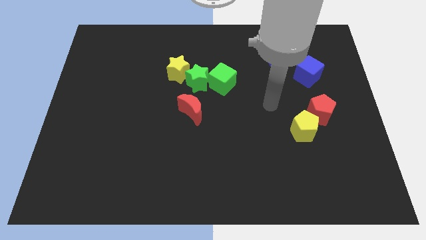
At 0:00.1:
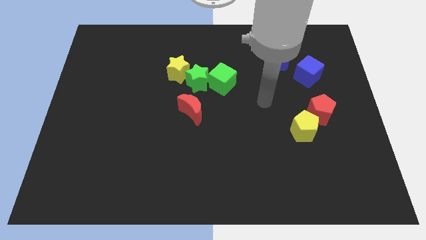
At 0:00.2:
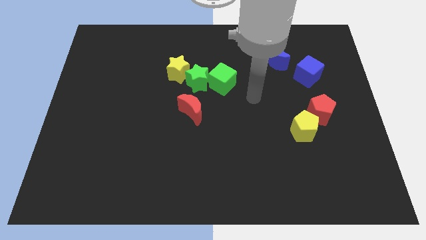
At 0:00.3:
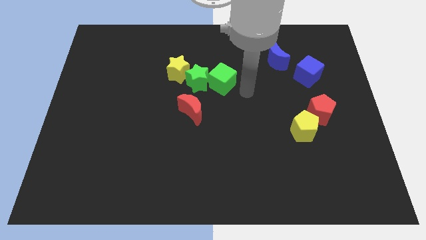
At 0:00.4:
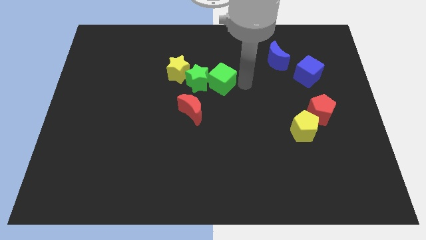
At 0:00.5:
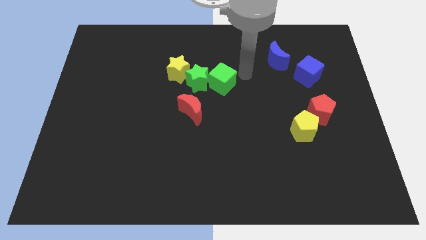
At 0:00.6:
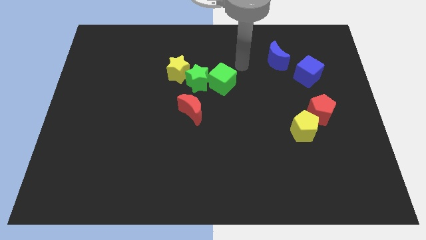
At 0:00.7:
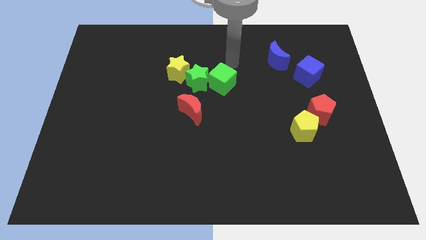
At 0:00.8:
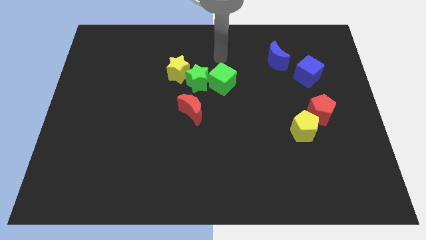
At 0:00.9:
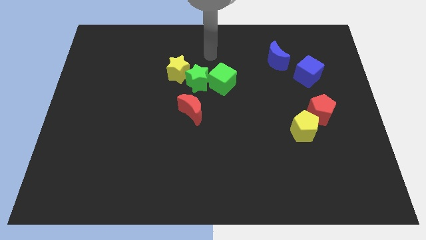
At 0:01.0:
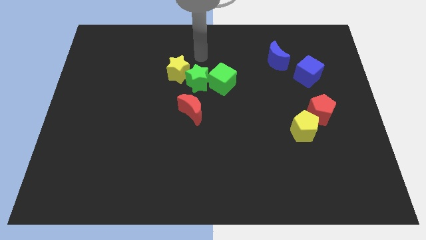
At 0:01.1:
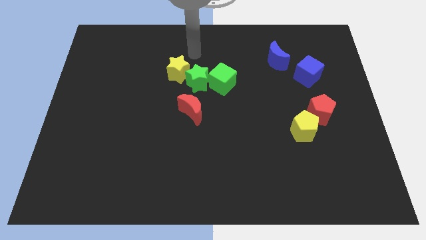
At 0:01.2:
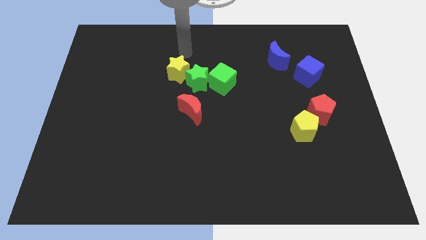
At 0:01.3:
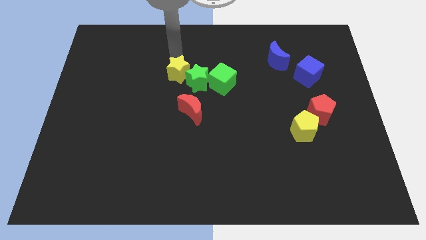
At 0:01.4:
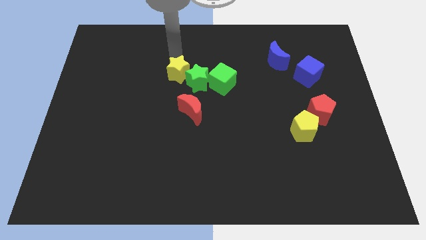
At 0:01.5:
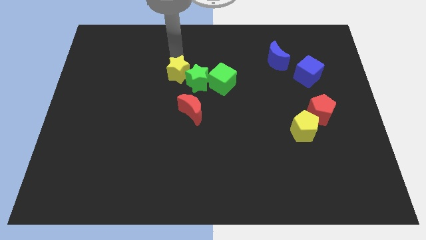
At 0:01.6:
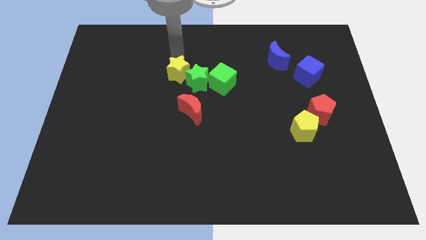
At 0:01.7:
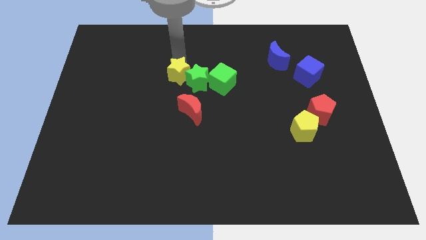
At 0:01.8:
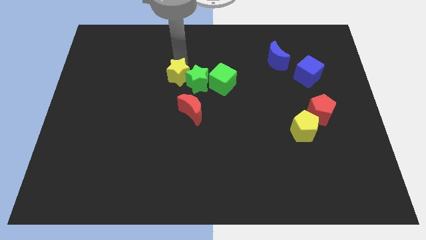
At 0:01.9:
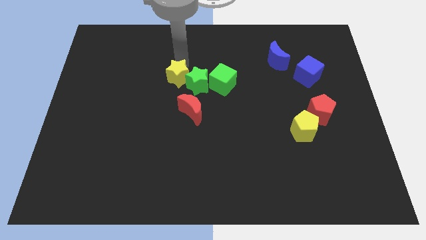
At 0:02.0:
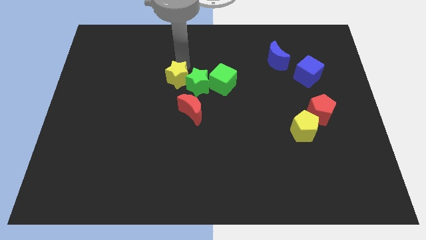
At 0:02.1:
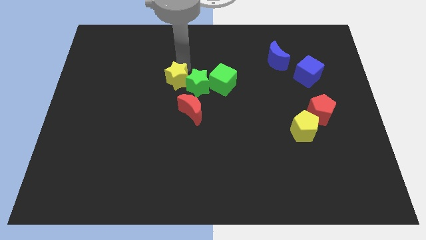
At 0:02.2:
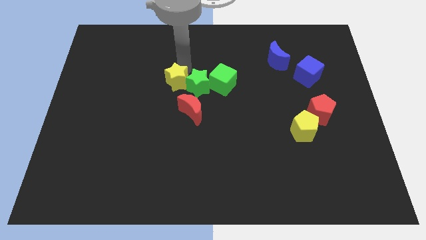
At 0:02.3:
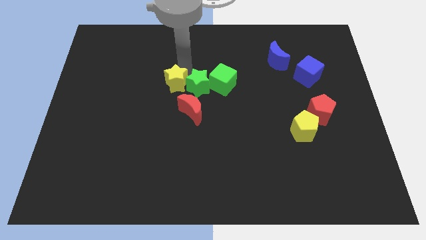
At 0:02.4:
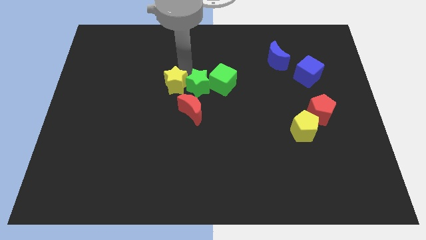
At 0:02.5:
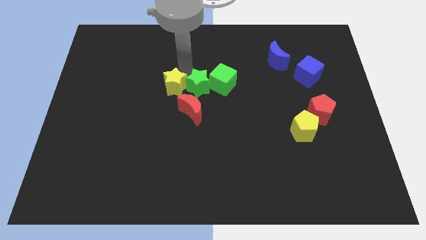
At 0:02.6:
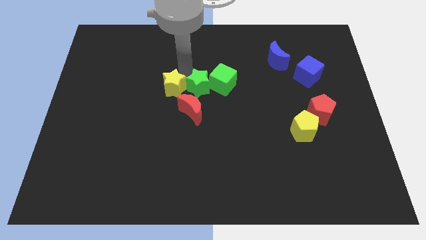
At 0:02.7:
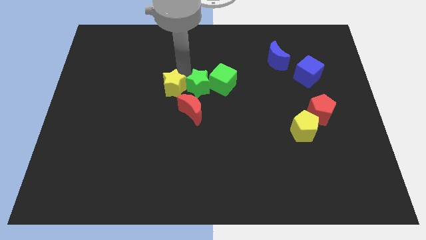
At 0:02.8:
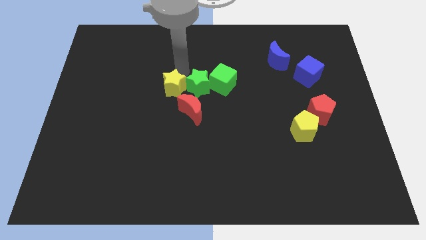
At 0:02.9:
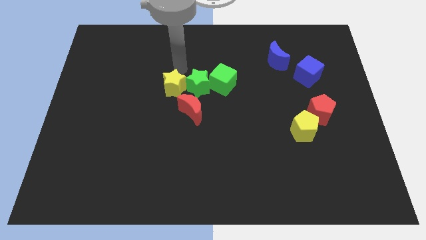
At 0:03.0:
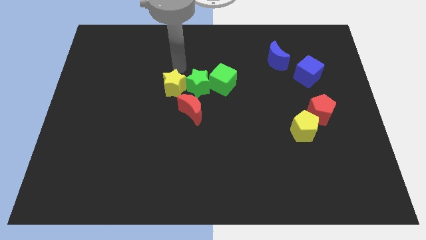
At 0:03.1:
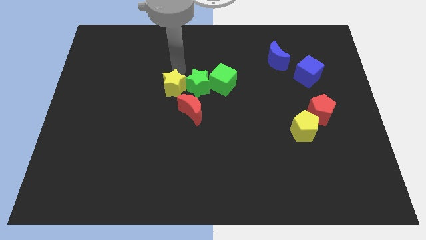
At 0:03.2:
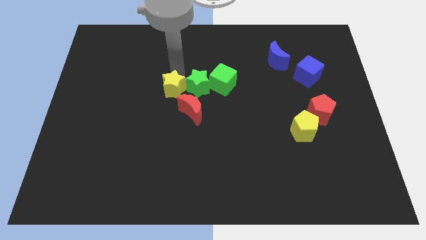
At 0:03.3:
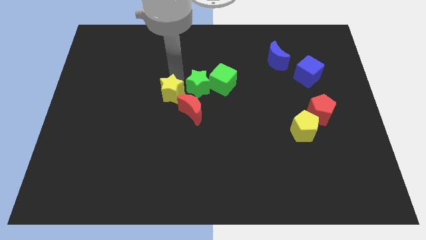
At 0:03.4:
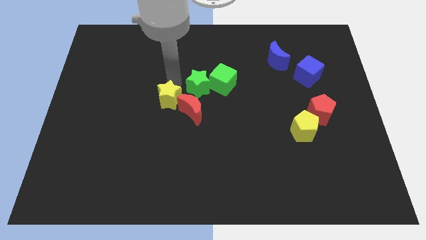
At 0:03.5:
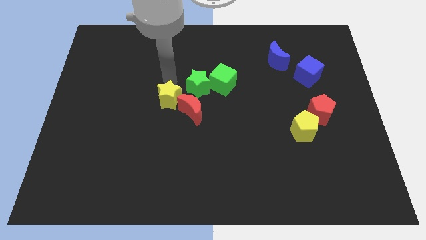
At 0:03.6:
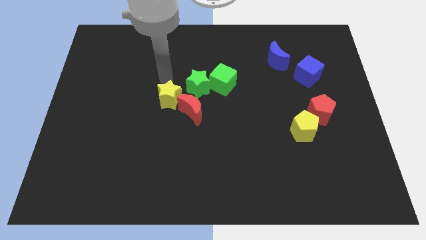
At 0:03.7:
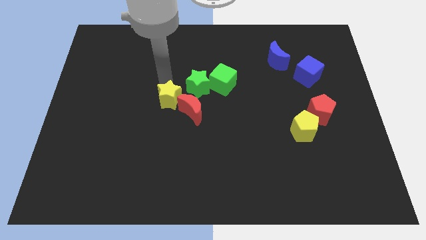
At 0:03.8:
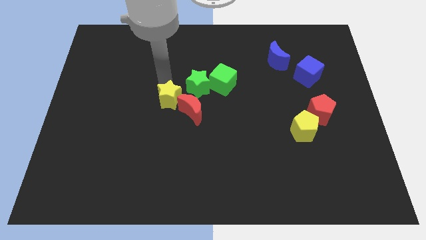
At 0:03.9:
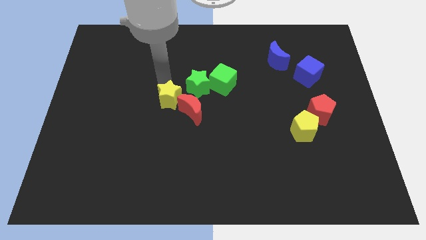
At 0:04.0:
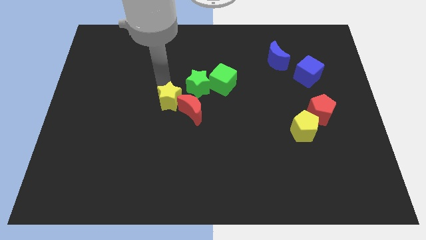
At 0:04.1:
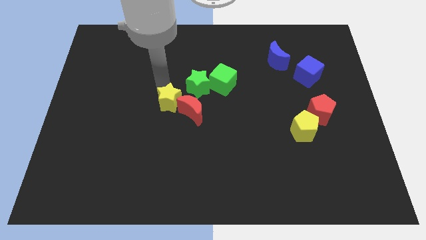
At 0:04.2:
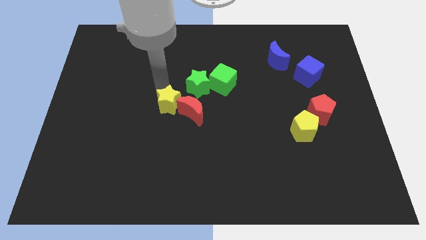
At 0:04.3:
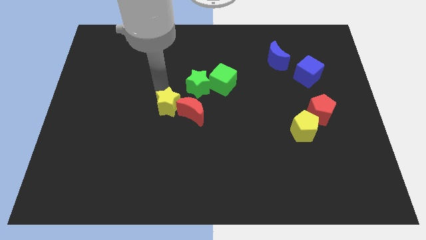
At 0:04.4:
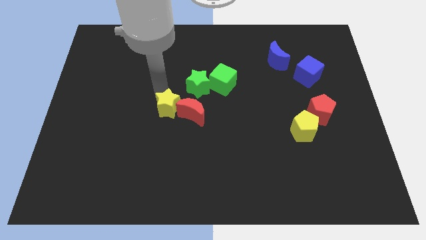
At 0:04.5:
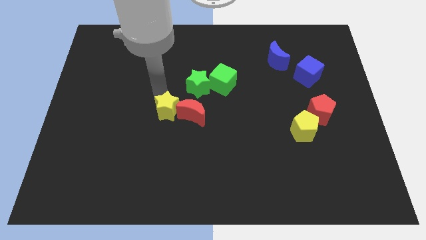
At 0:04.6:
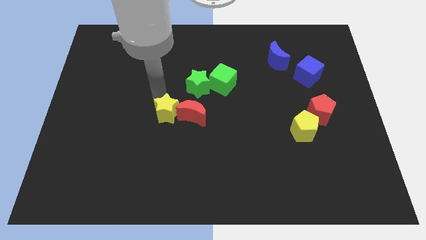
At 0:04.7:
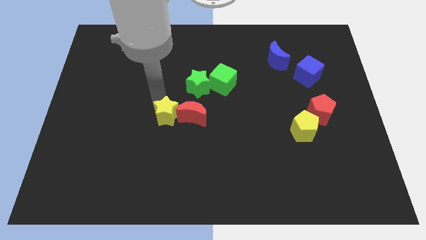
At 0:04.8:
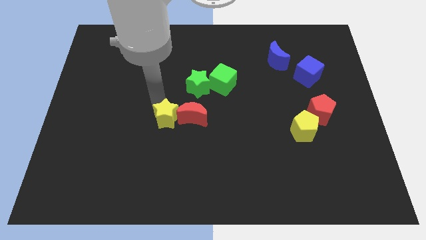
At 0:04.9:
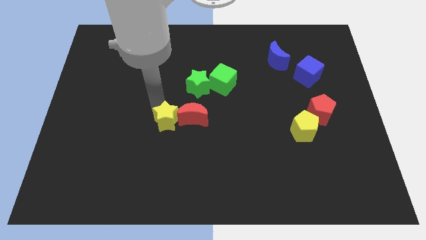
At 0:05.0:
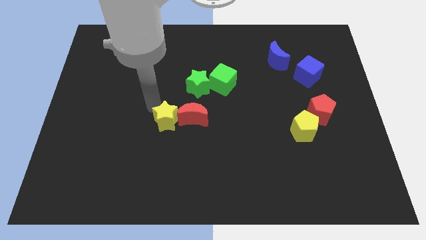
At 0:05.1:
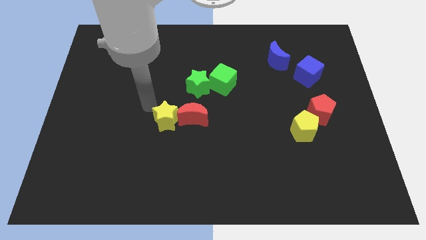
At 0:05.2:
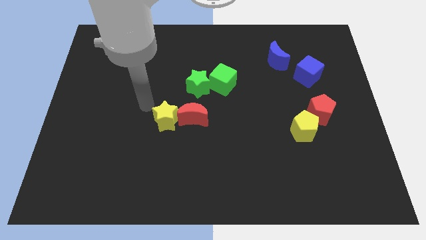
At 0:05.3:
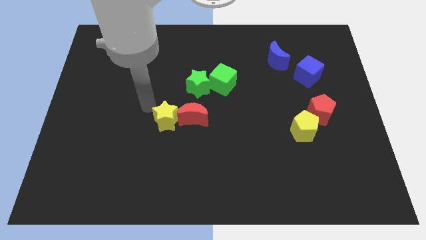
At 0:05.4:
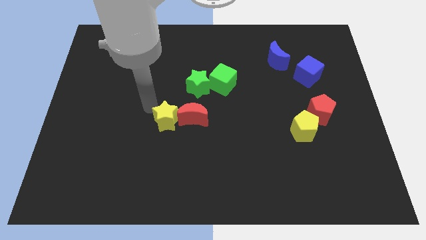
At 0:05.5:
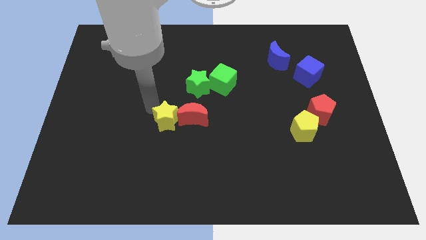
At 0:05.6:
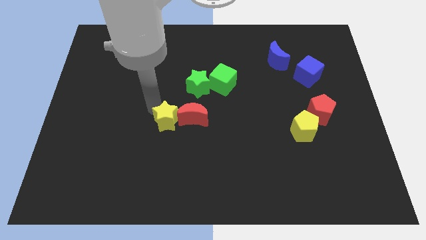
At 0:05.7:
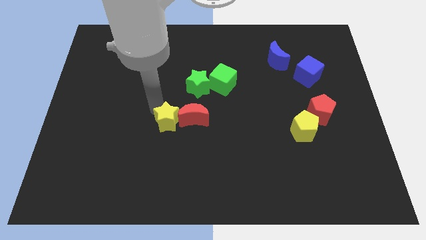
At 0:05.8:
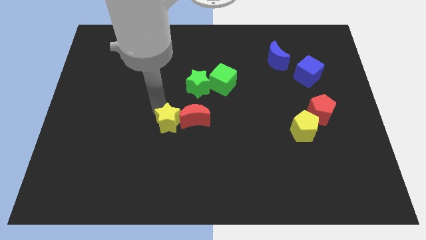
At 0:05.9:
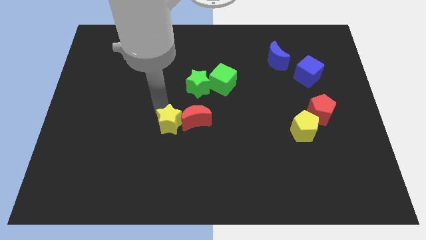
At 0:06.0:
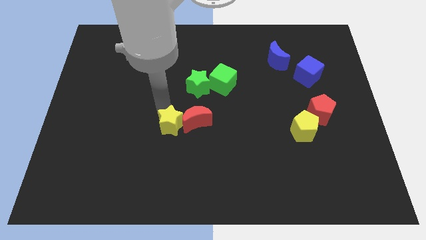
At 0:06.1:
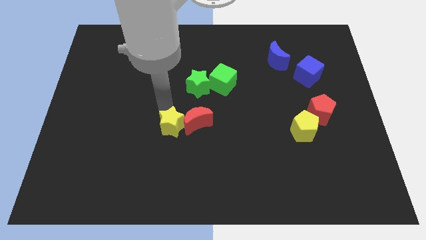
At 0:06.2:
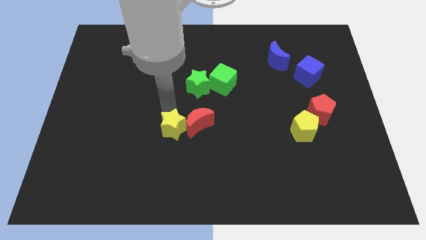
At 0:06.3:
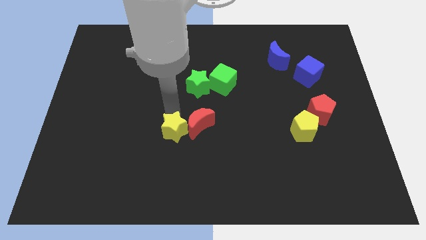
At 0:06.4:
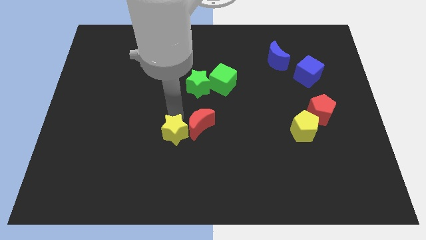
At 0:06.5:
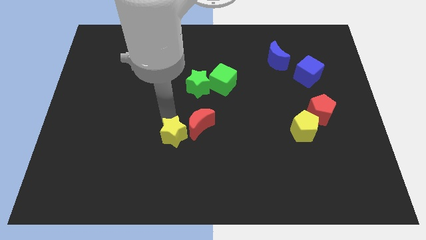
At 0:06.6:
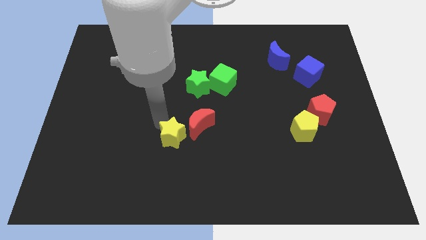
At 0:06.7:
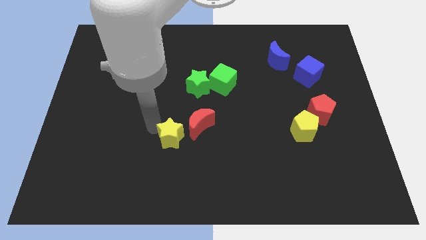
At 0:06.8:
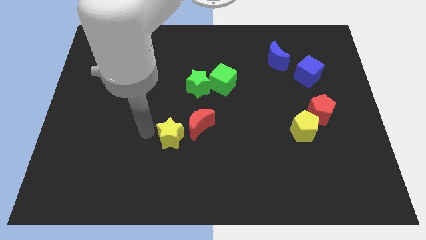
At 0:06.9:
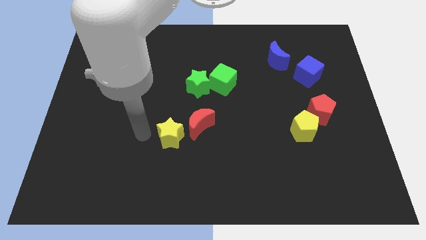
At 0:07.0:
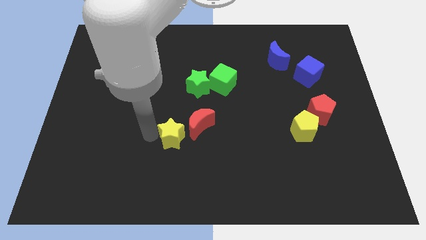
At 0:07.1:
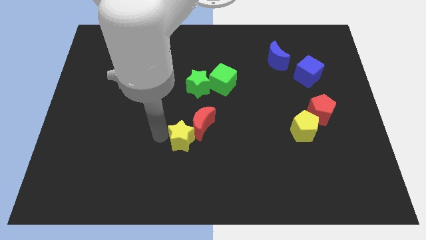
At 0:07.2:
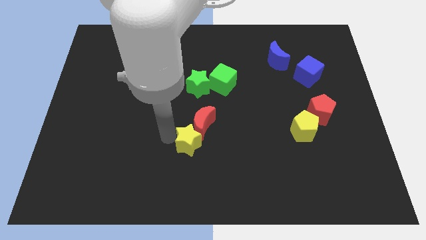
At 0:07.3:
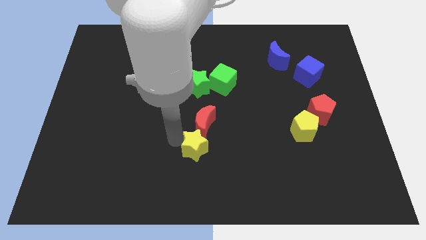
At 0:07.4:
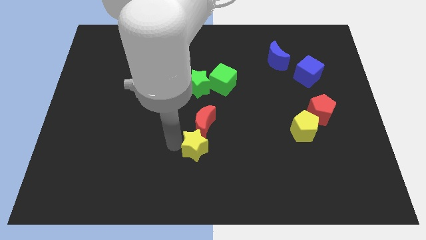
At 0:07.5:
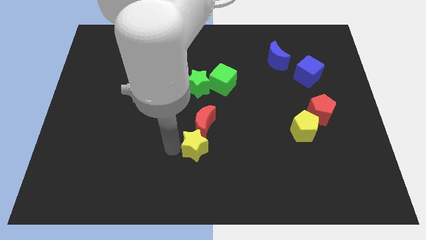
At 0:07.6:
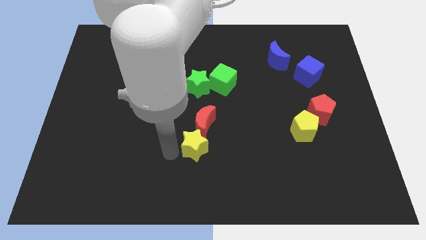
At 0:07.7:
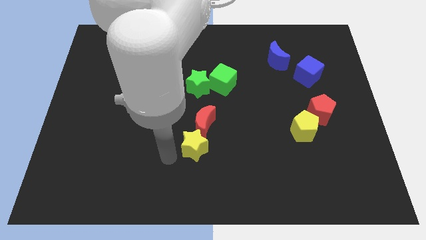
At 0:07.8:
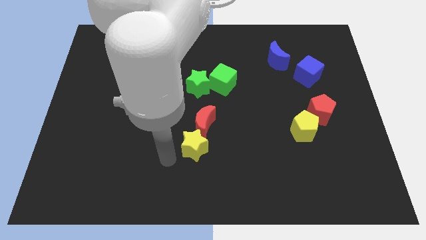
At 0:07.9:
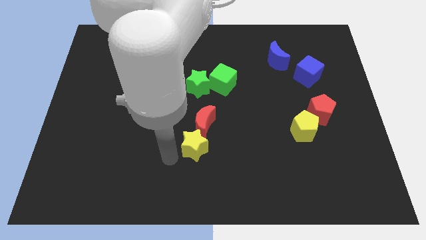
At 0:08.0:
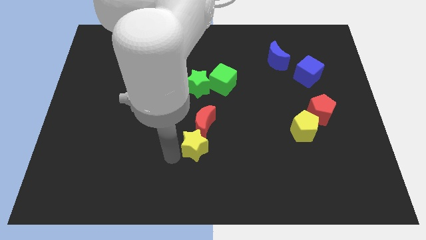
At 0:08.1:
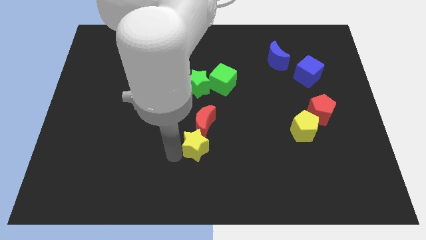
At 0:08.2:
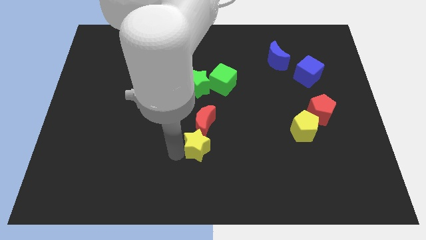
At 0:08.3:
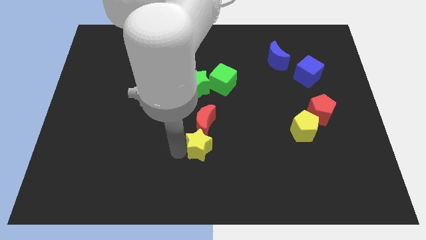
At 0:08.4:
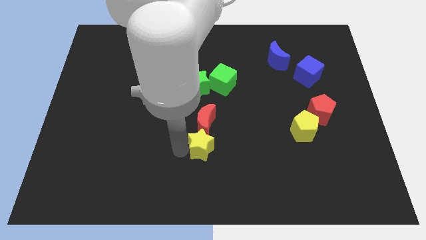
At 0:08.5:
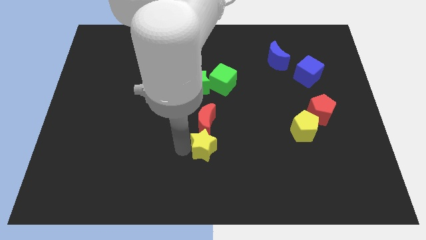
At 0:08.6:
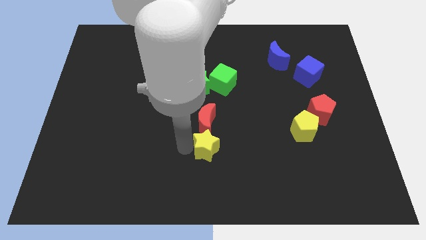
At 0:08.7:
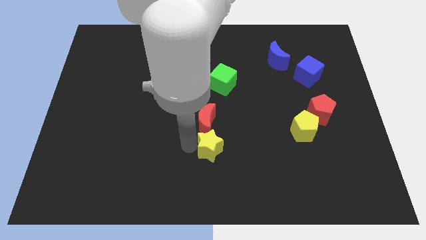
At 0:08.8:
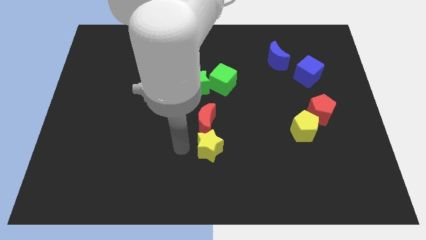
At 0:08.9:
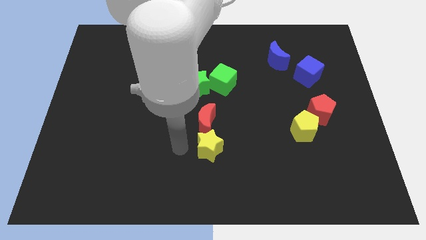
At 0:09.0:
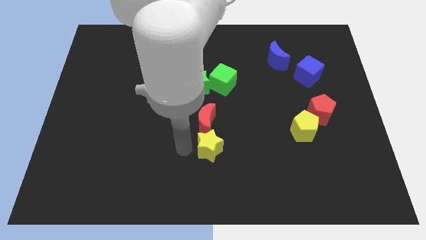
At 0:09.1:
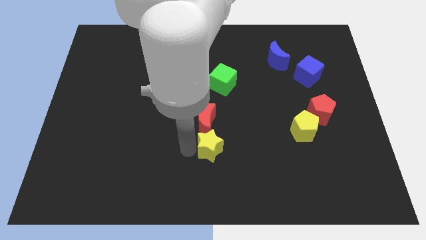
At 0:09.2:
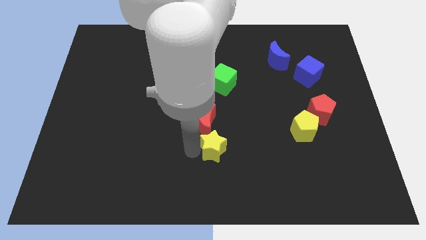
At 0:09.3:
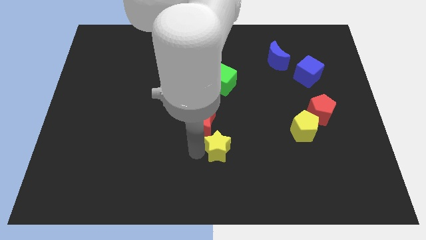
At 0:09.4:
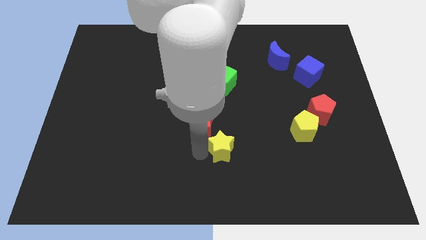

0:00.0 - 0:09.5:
move the yellow star down and to the right diagonally
